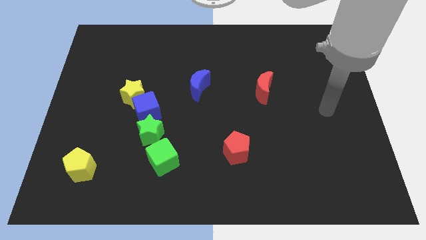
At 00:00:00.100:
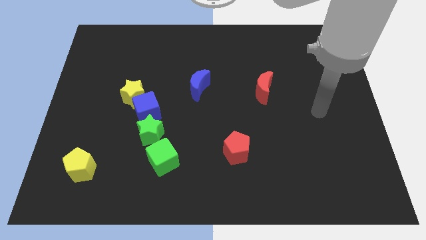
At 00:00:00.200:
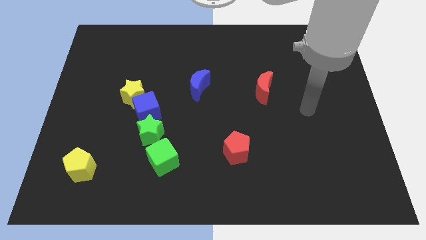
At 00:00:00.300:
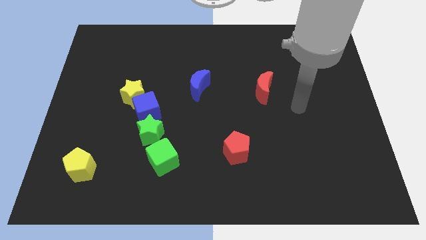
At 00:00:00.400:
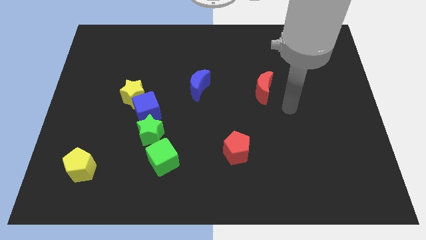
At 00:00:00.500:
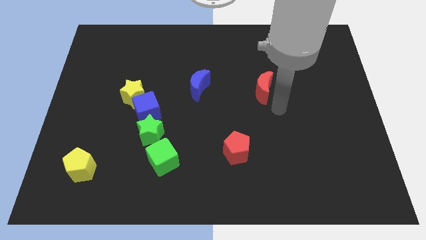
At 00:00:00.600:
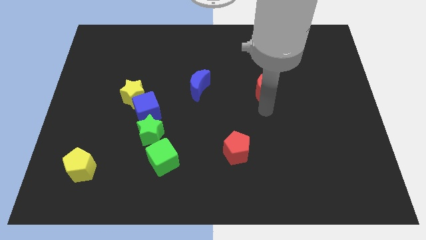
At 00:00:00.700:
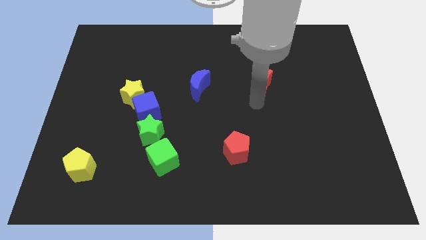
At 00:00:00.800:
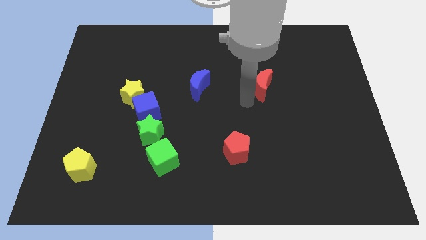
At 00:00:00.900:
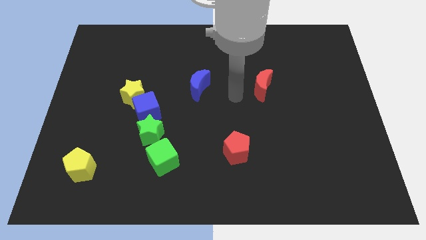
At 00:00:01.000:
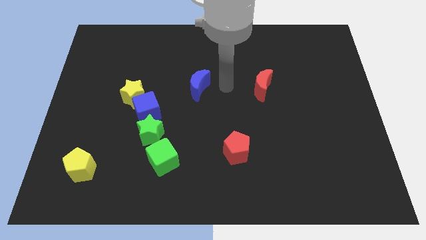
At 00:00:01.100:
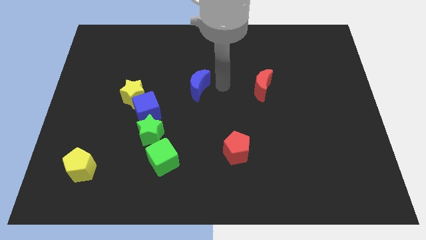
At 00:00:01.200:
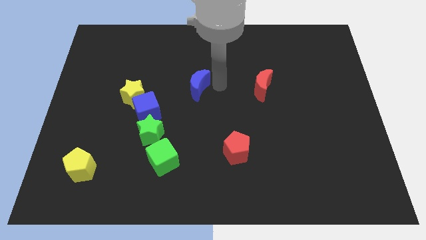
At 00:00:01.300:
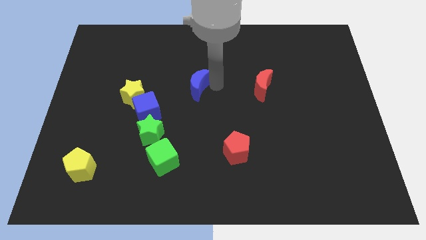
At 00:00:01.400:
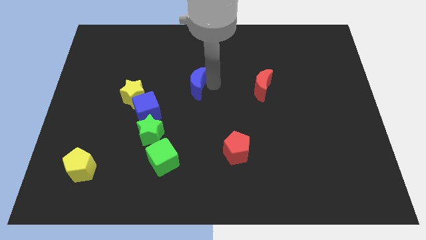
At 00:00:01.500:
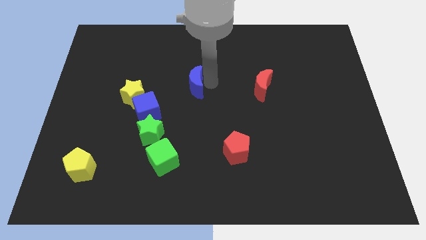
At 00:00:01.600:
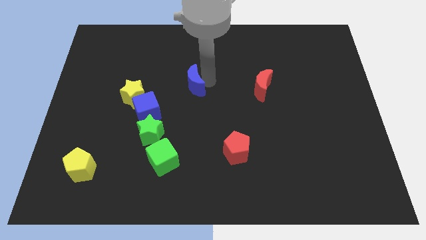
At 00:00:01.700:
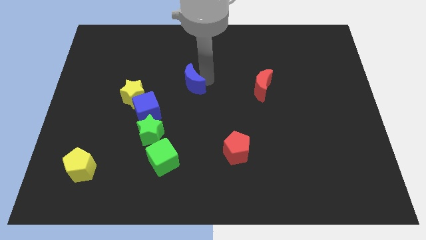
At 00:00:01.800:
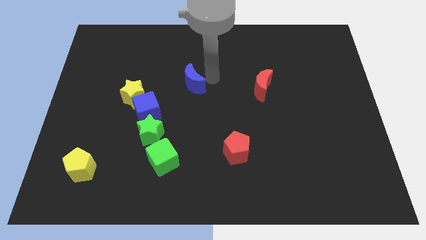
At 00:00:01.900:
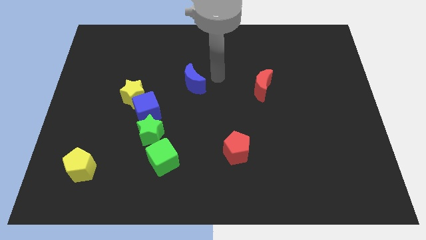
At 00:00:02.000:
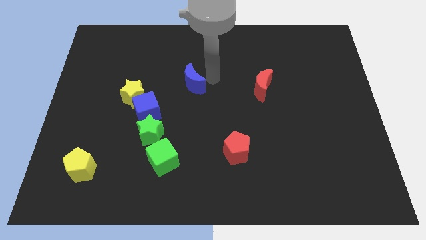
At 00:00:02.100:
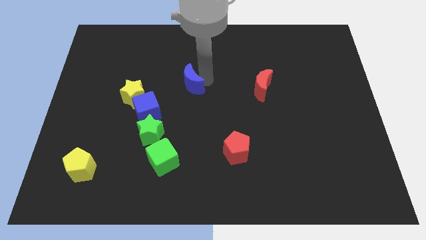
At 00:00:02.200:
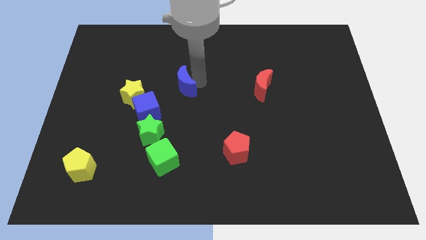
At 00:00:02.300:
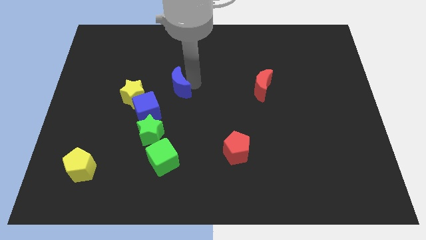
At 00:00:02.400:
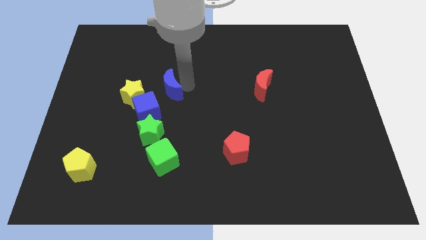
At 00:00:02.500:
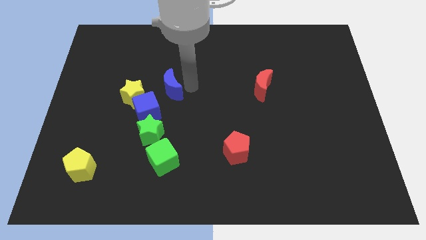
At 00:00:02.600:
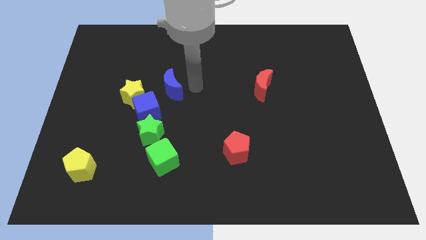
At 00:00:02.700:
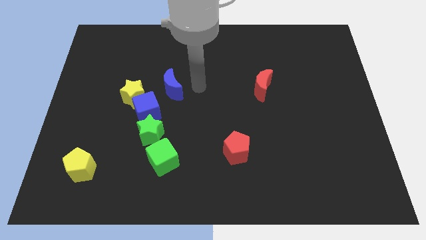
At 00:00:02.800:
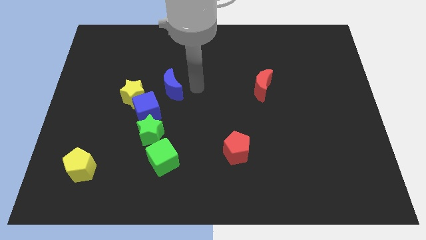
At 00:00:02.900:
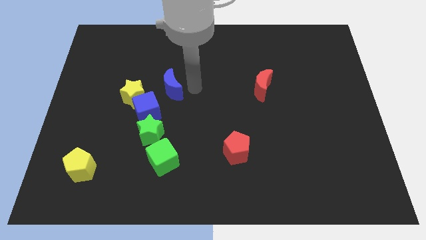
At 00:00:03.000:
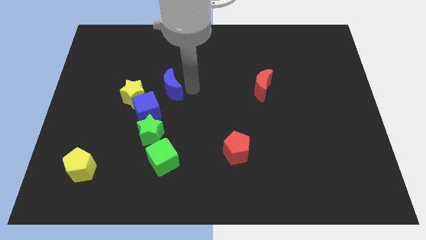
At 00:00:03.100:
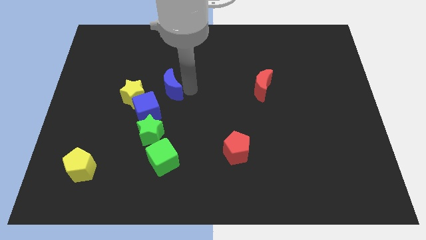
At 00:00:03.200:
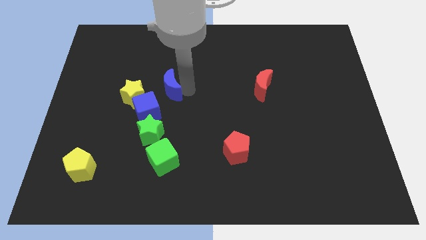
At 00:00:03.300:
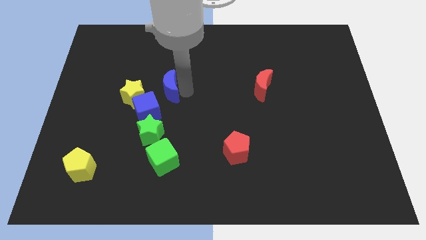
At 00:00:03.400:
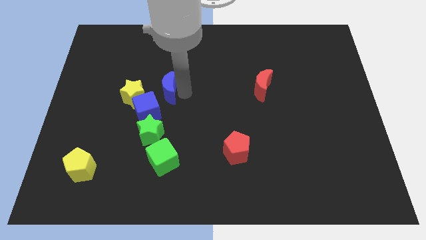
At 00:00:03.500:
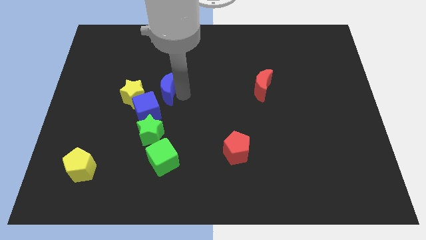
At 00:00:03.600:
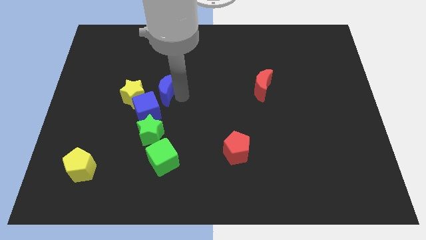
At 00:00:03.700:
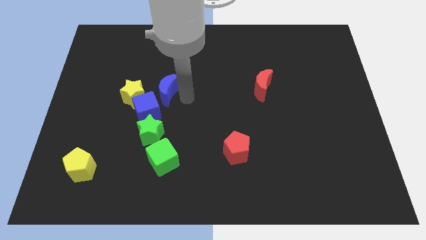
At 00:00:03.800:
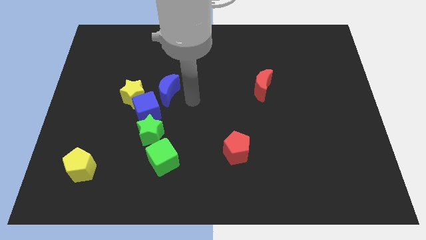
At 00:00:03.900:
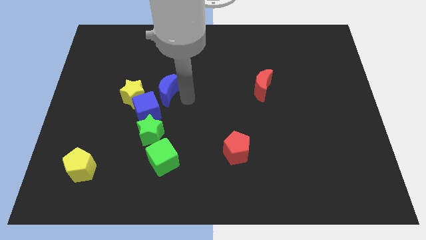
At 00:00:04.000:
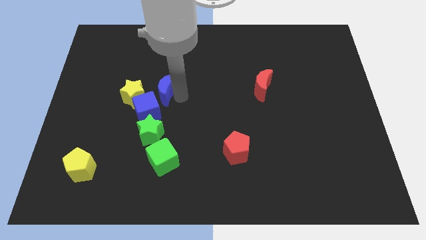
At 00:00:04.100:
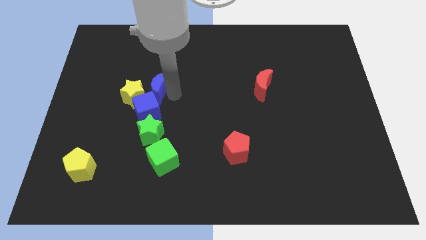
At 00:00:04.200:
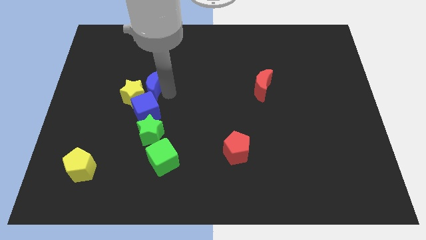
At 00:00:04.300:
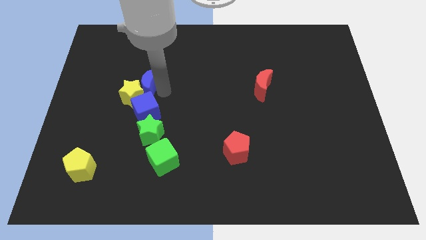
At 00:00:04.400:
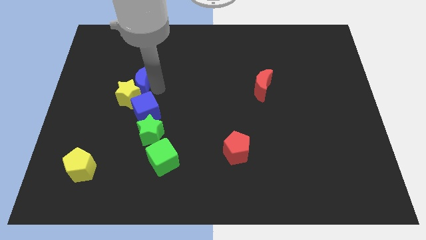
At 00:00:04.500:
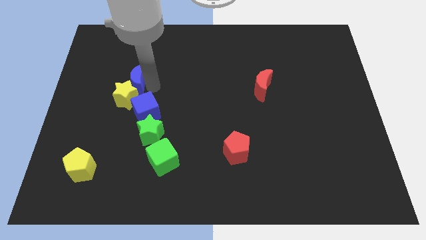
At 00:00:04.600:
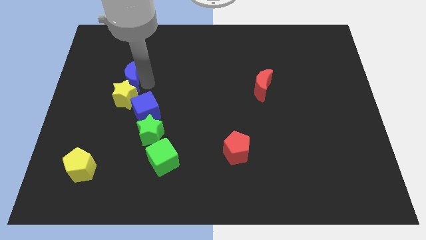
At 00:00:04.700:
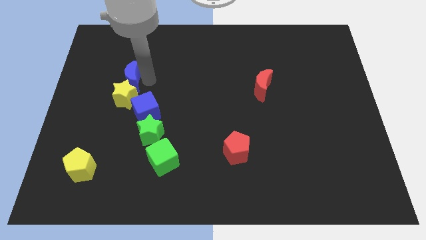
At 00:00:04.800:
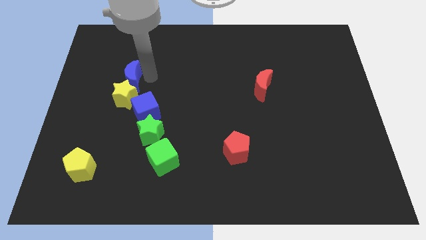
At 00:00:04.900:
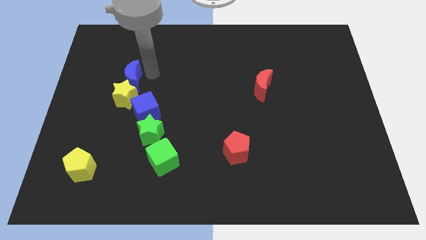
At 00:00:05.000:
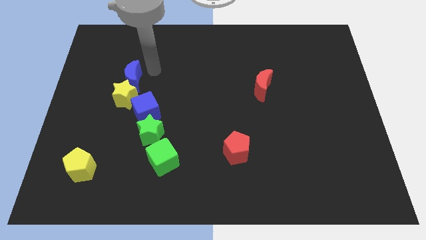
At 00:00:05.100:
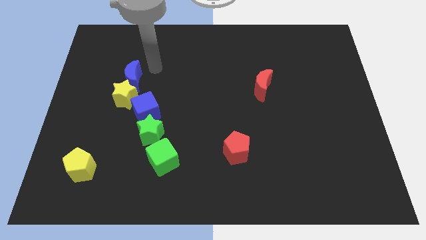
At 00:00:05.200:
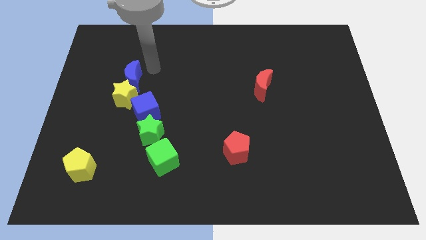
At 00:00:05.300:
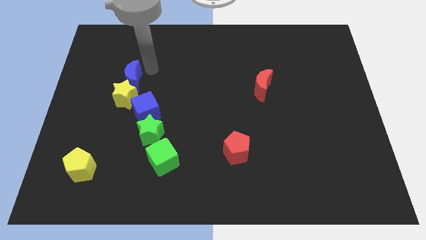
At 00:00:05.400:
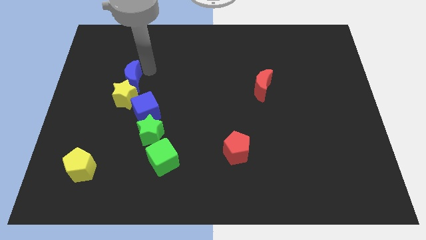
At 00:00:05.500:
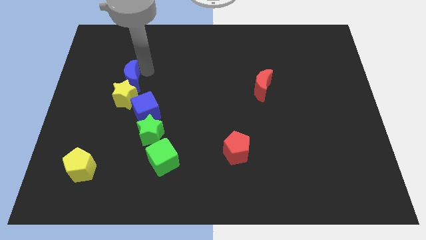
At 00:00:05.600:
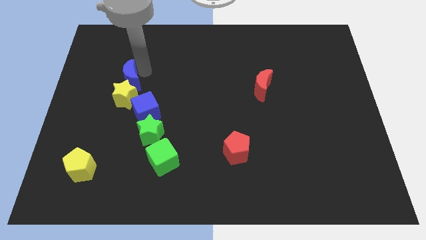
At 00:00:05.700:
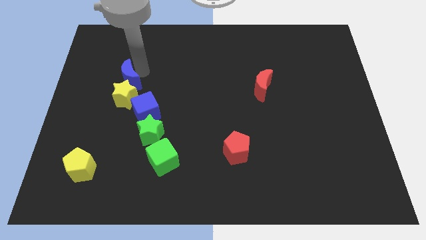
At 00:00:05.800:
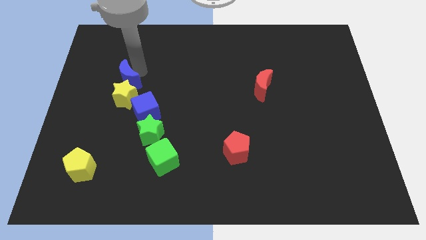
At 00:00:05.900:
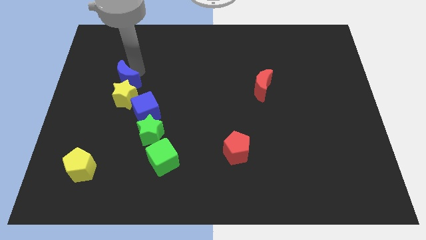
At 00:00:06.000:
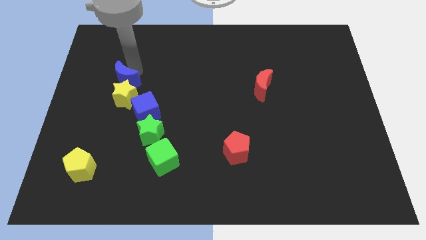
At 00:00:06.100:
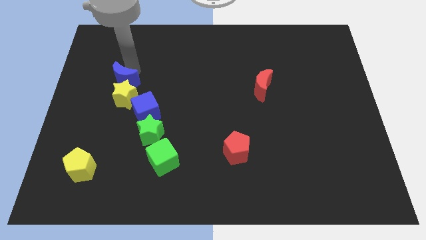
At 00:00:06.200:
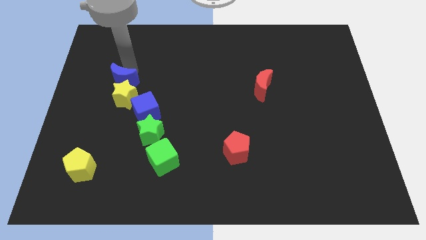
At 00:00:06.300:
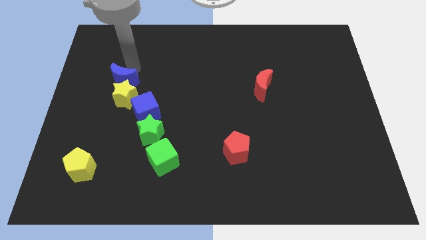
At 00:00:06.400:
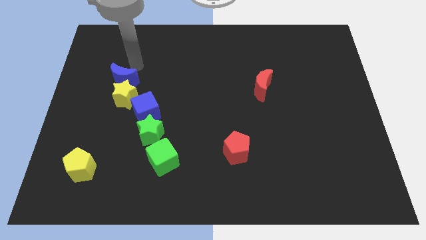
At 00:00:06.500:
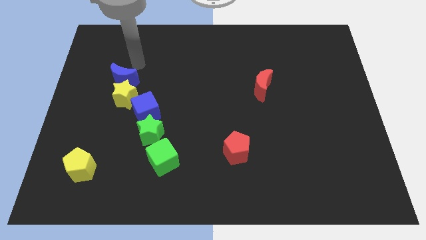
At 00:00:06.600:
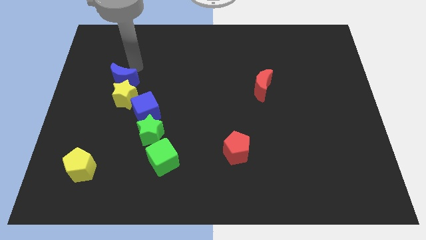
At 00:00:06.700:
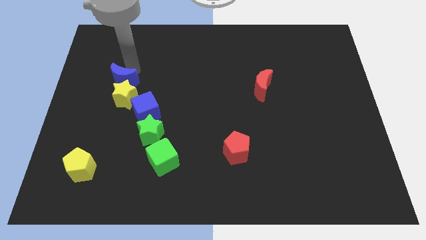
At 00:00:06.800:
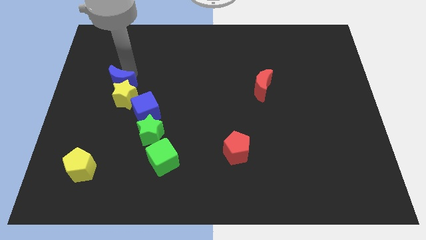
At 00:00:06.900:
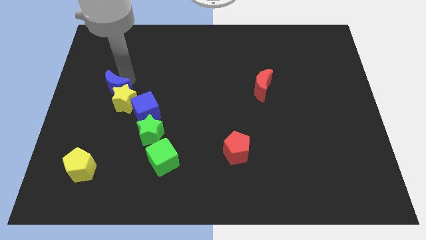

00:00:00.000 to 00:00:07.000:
push the blue moon just left of the yellow star
